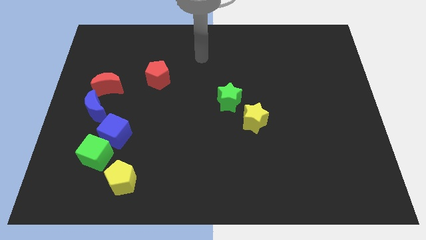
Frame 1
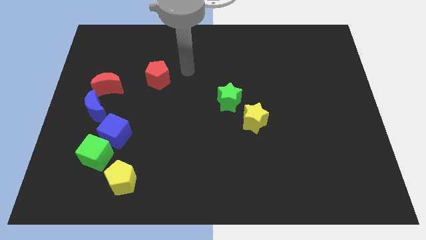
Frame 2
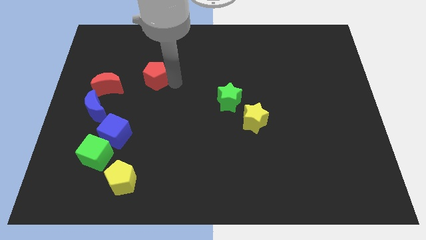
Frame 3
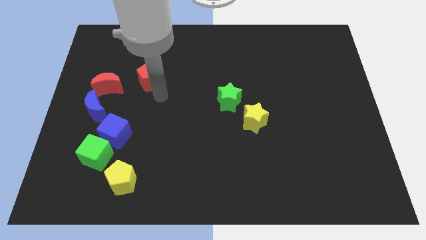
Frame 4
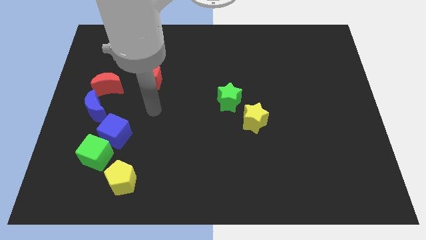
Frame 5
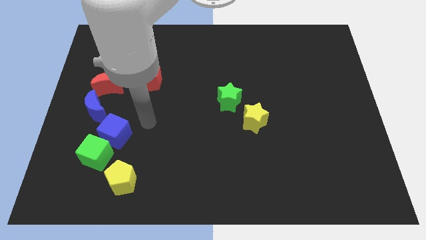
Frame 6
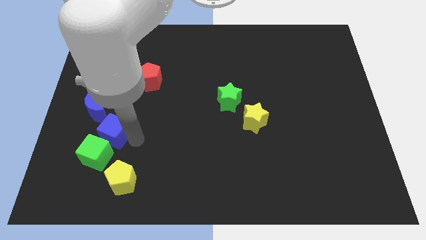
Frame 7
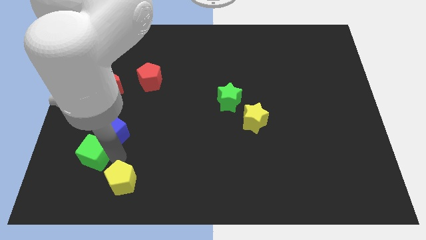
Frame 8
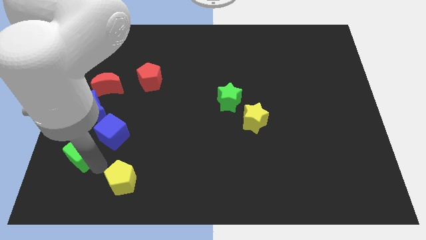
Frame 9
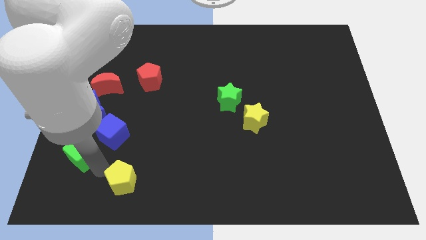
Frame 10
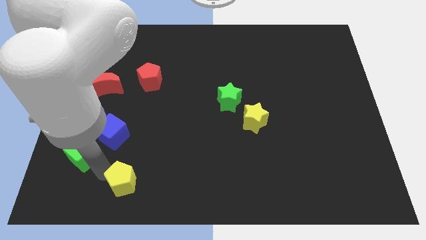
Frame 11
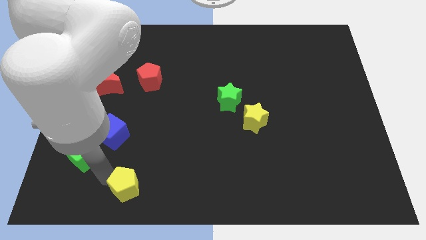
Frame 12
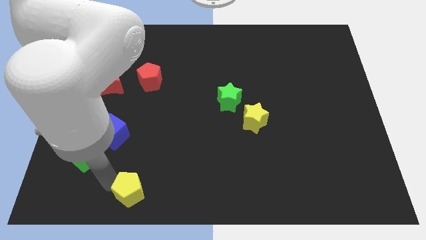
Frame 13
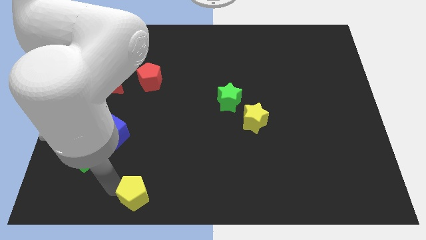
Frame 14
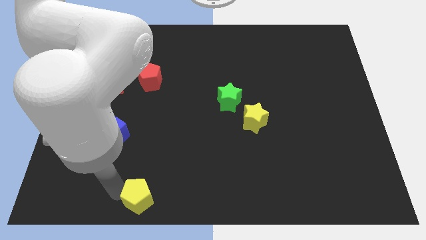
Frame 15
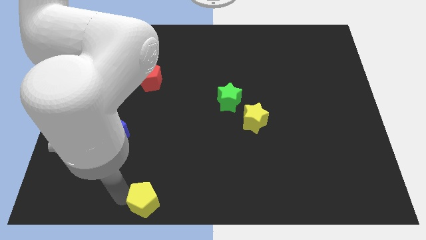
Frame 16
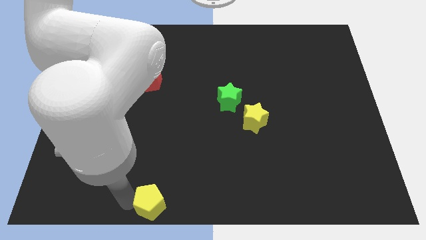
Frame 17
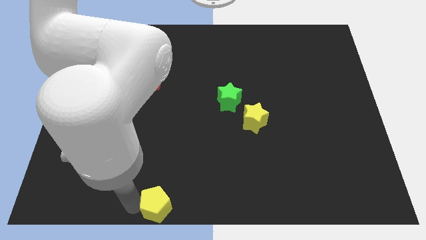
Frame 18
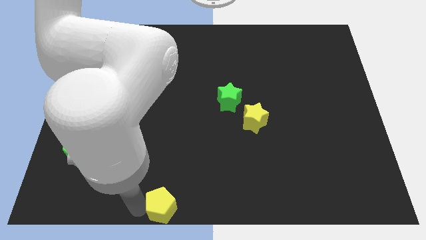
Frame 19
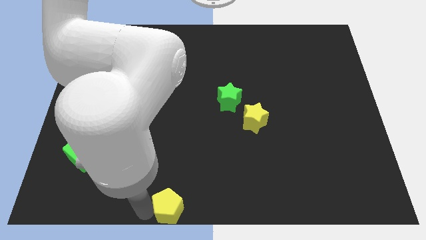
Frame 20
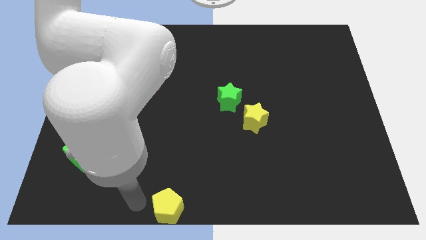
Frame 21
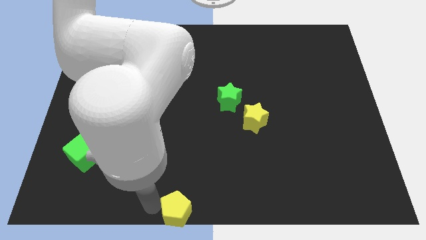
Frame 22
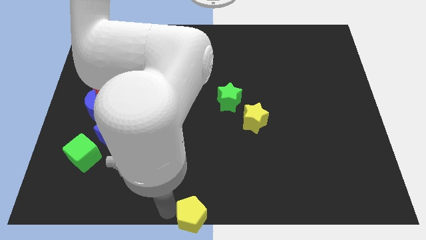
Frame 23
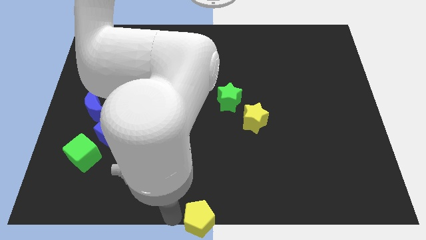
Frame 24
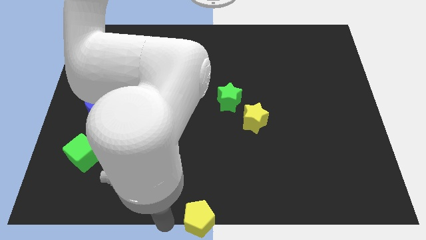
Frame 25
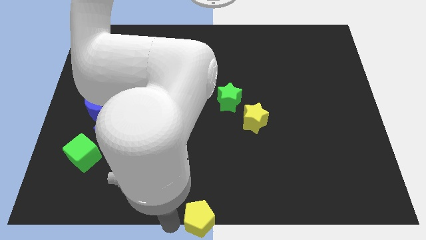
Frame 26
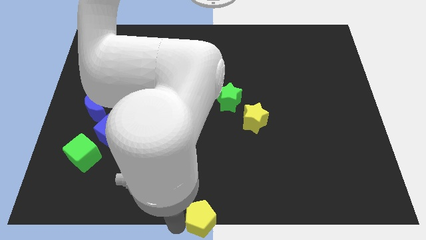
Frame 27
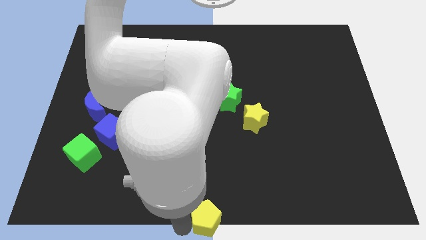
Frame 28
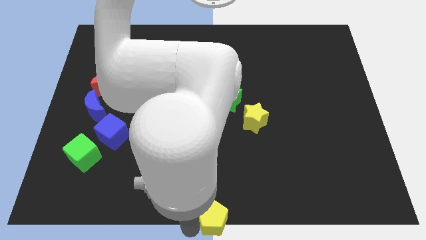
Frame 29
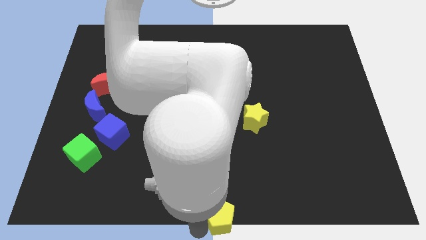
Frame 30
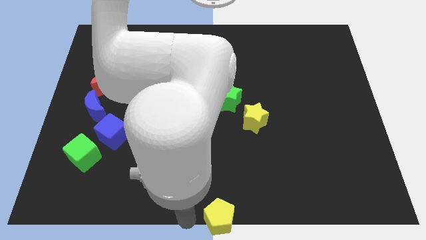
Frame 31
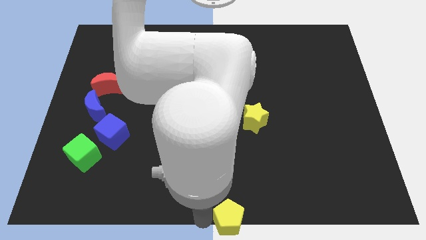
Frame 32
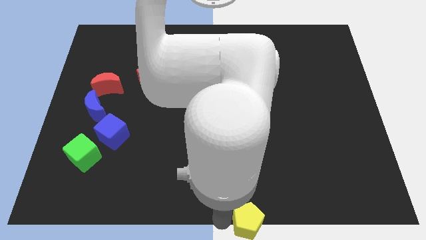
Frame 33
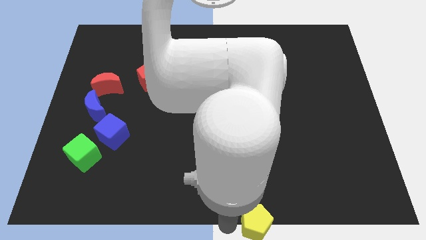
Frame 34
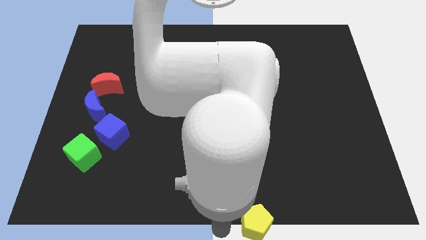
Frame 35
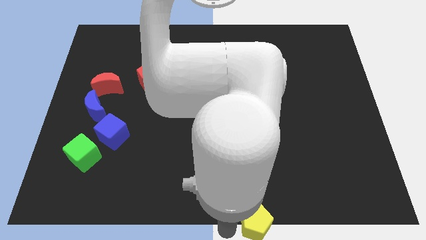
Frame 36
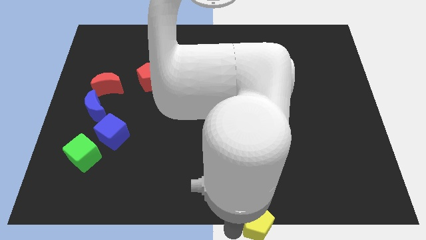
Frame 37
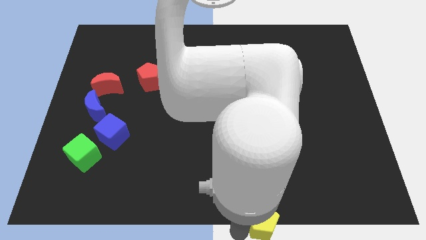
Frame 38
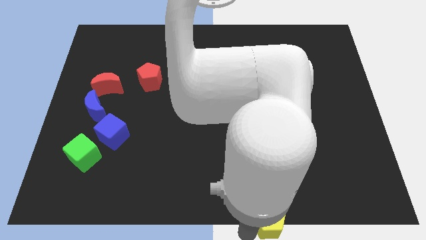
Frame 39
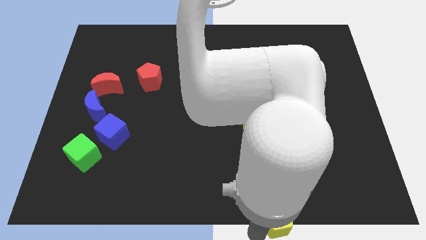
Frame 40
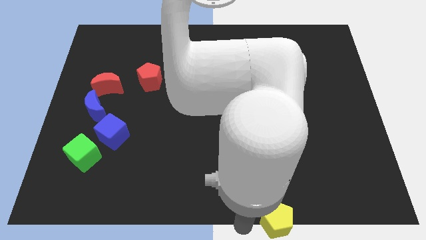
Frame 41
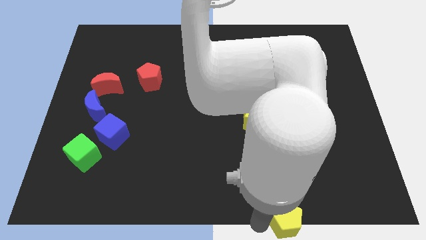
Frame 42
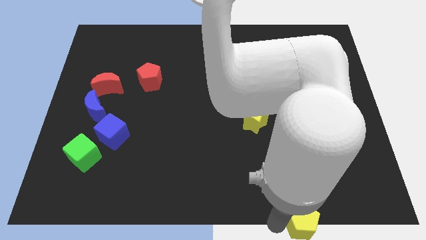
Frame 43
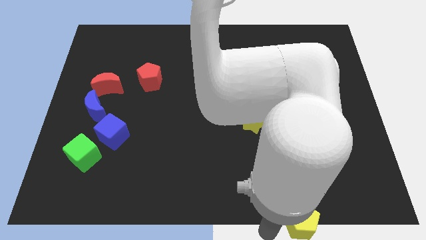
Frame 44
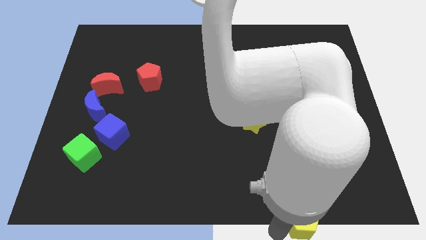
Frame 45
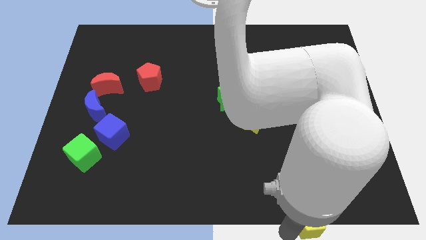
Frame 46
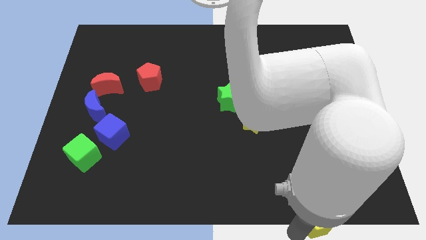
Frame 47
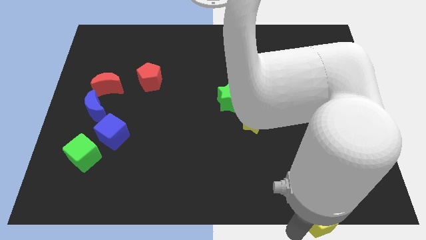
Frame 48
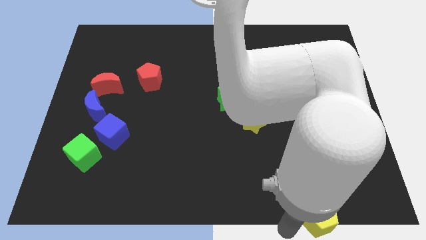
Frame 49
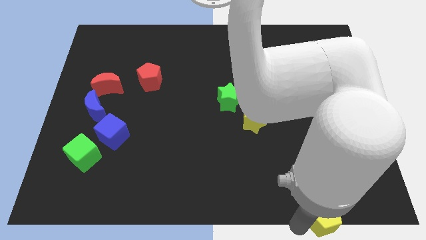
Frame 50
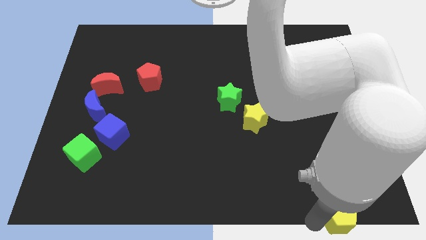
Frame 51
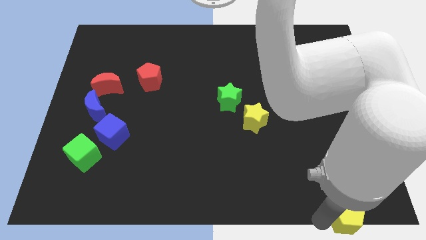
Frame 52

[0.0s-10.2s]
put the yellow pentagon to the bottom right corner

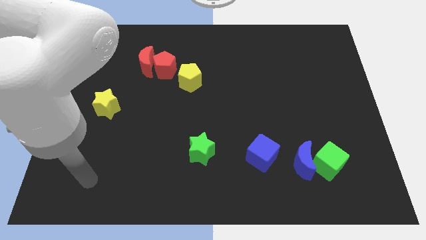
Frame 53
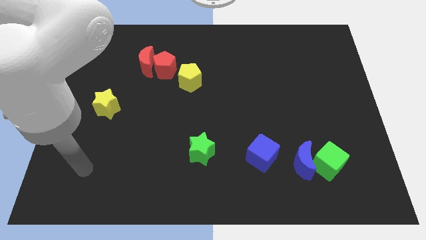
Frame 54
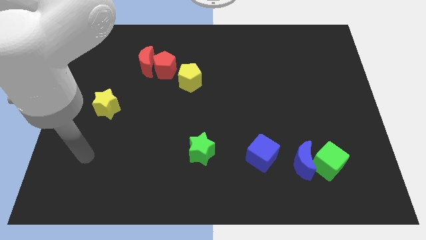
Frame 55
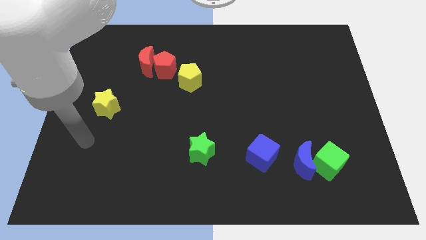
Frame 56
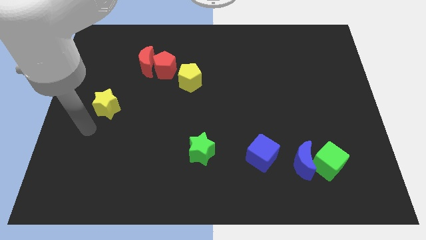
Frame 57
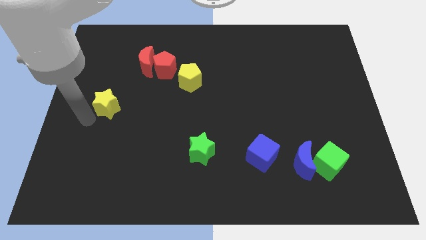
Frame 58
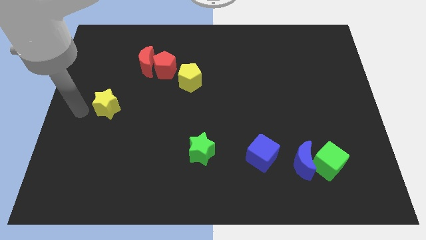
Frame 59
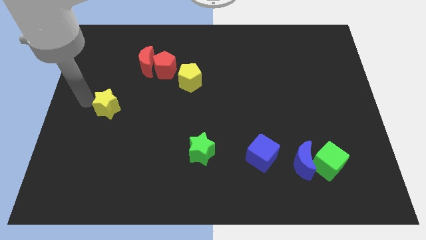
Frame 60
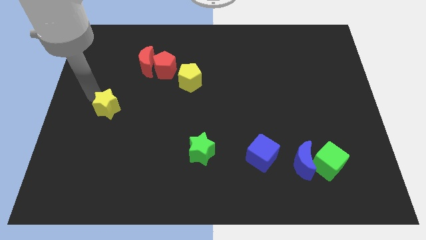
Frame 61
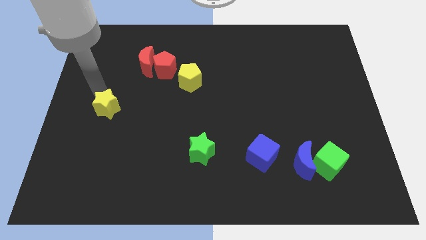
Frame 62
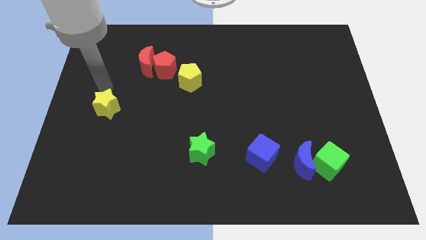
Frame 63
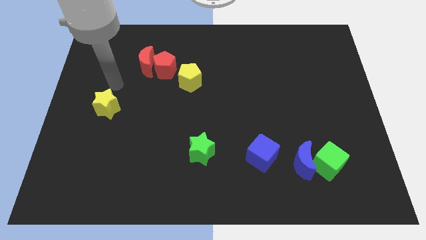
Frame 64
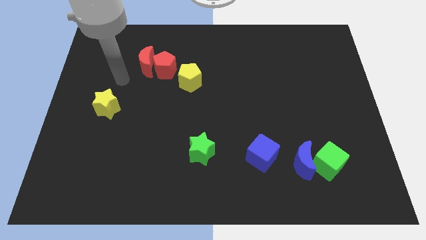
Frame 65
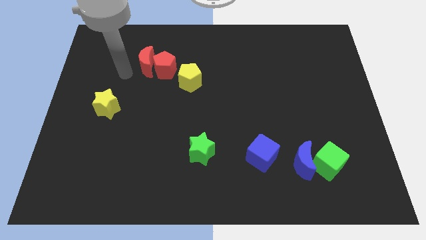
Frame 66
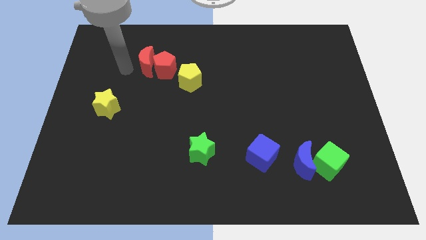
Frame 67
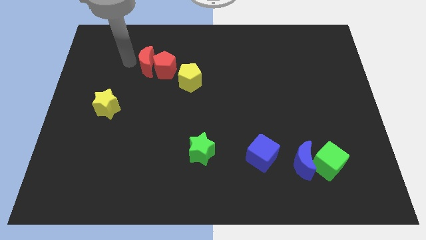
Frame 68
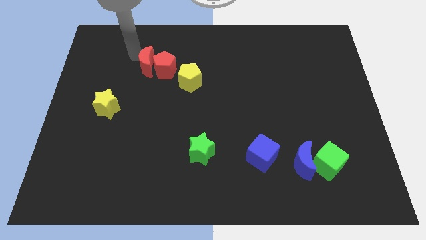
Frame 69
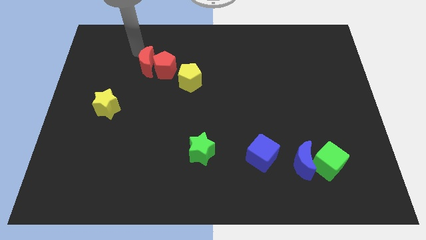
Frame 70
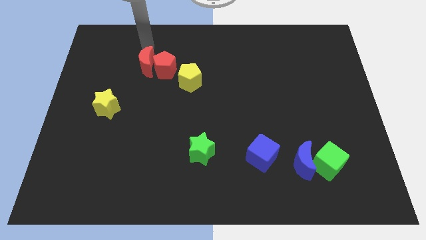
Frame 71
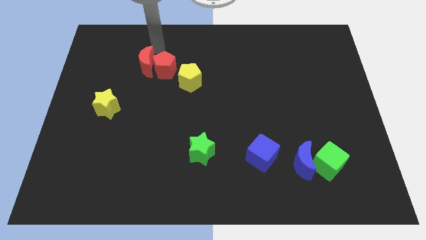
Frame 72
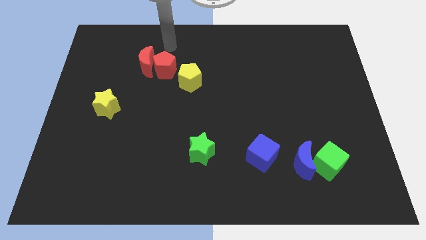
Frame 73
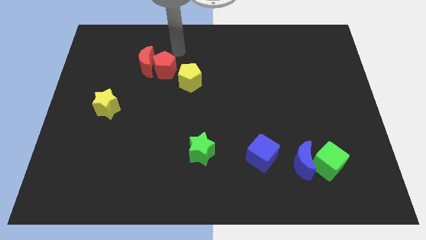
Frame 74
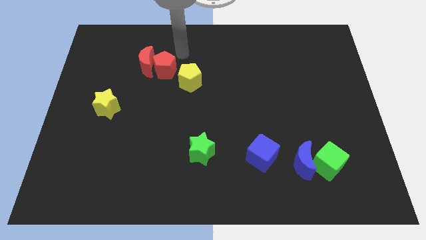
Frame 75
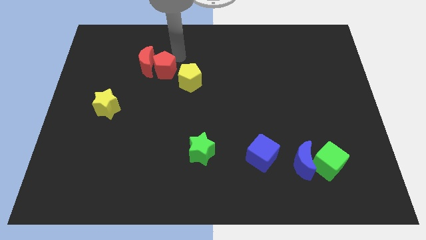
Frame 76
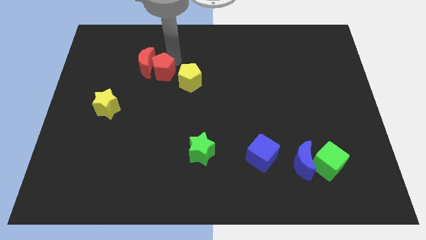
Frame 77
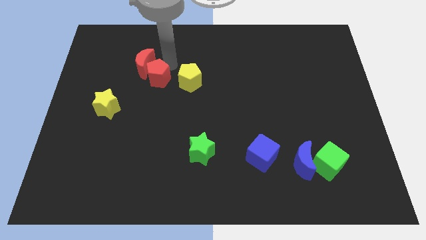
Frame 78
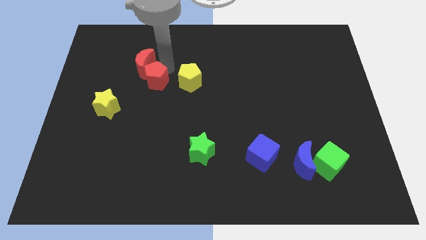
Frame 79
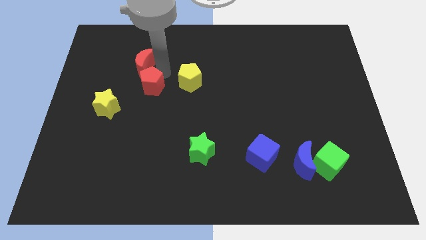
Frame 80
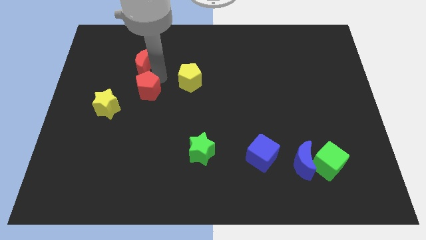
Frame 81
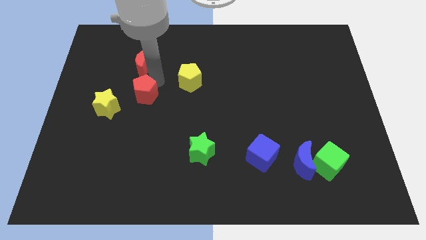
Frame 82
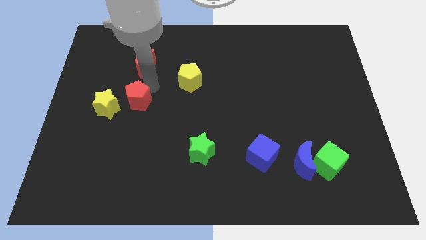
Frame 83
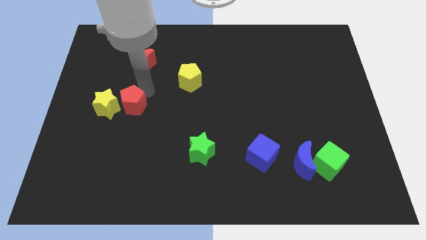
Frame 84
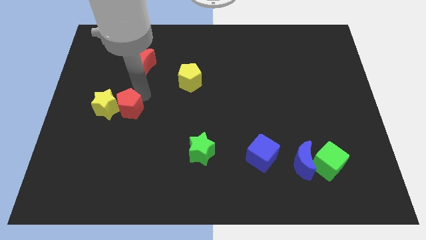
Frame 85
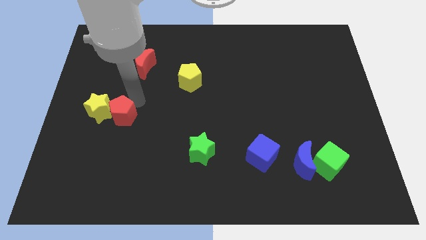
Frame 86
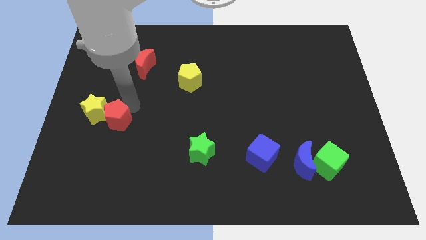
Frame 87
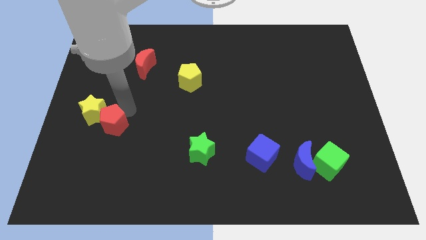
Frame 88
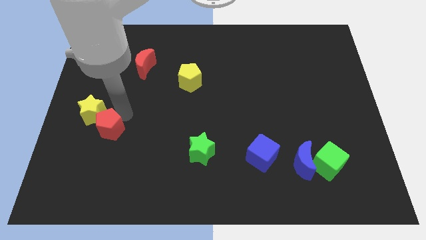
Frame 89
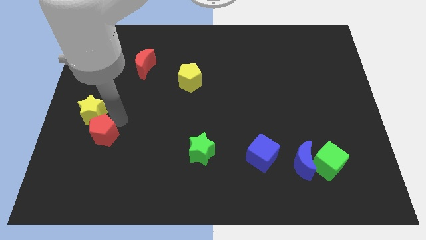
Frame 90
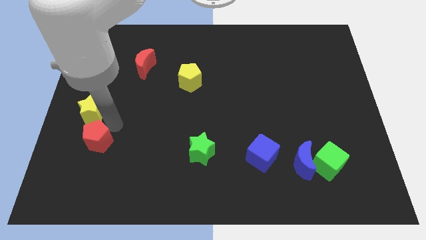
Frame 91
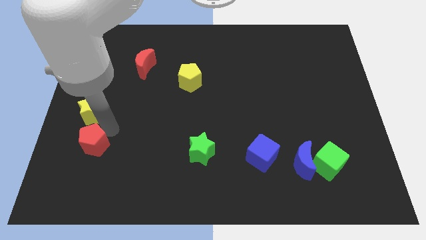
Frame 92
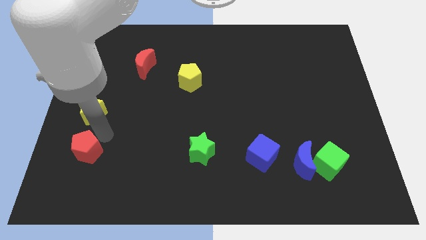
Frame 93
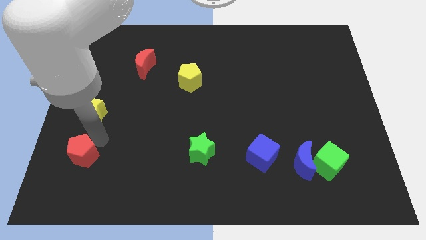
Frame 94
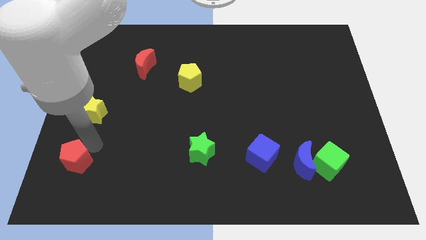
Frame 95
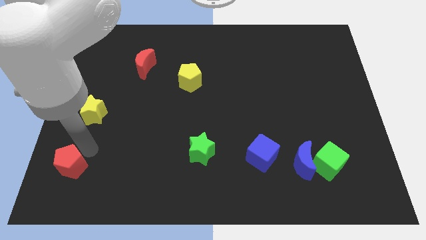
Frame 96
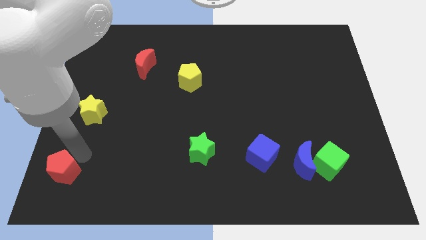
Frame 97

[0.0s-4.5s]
slide the red pentagon to the bottom left corner
